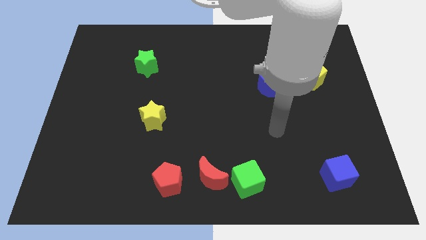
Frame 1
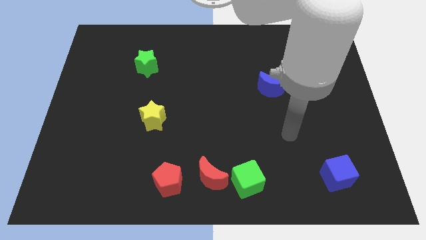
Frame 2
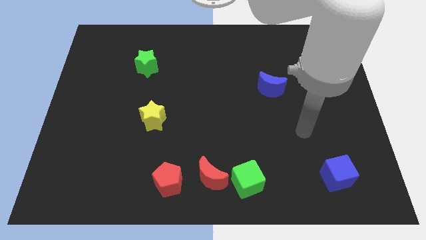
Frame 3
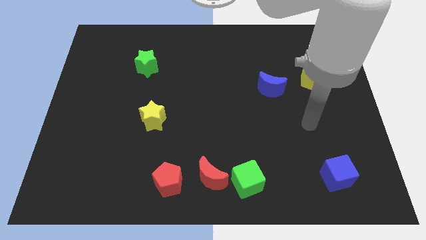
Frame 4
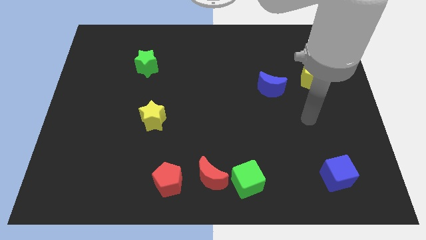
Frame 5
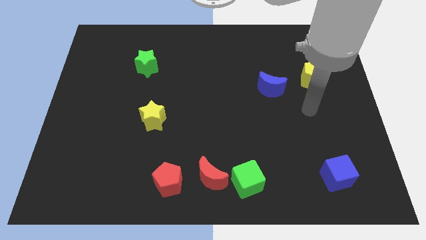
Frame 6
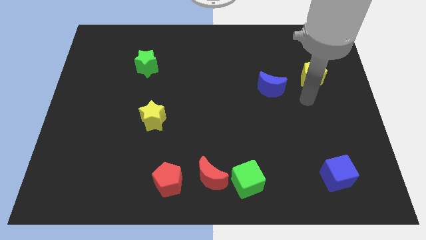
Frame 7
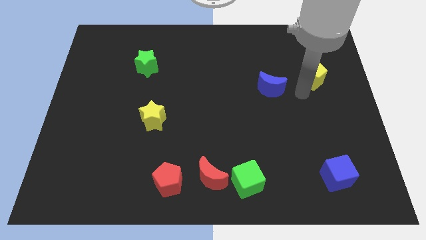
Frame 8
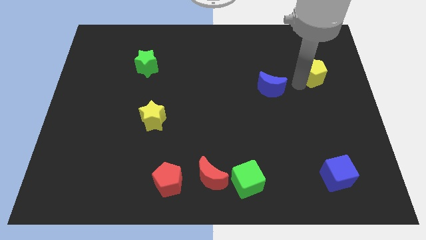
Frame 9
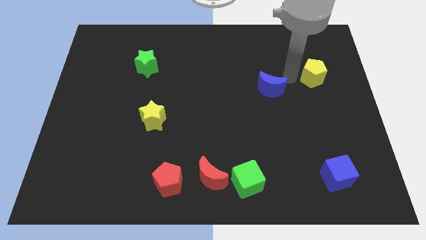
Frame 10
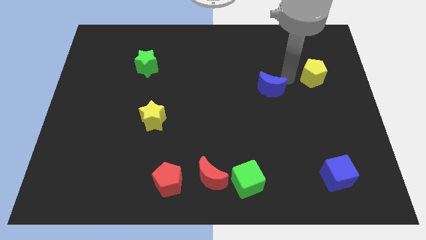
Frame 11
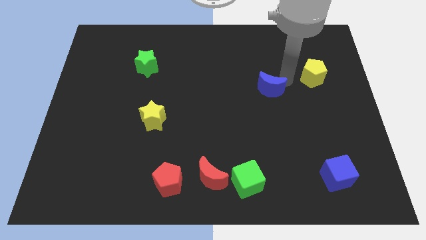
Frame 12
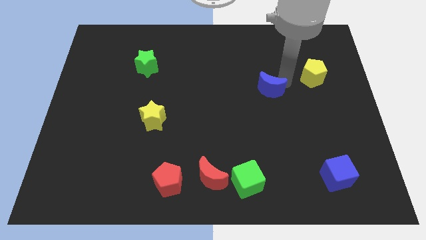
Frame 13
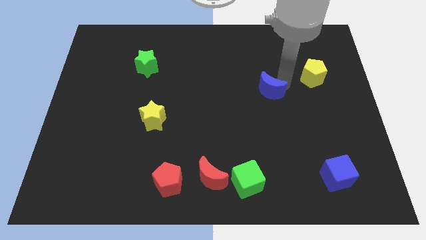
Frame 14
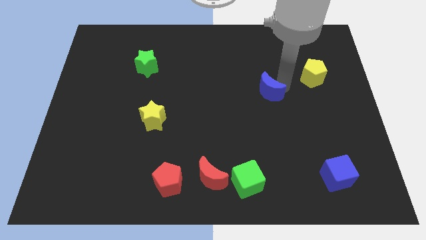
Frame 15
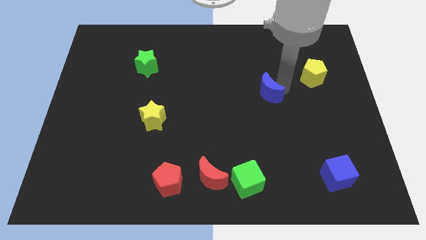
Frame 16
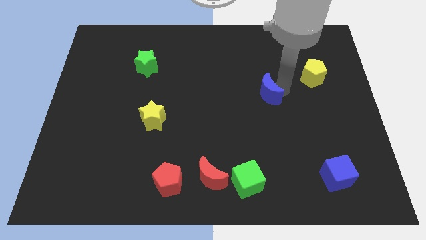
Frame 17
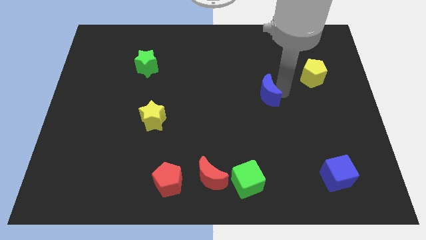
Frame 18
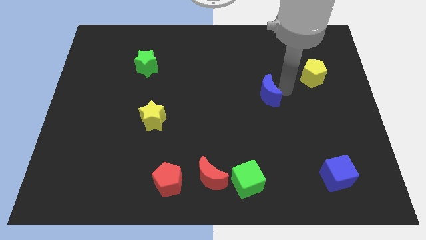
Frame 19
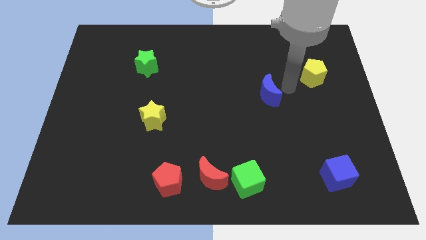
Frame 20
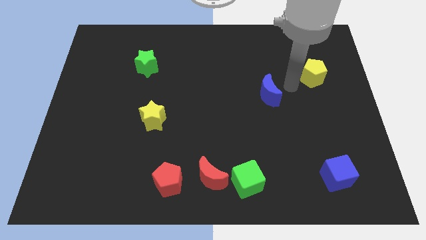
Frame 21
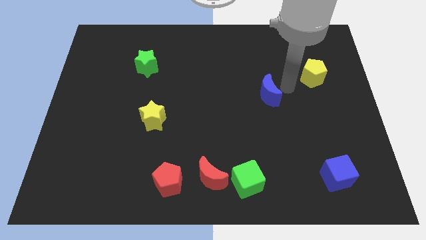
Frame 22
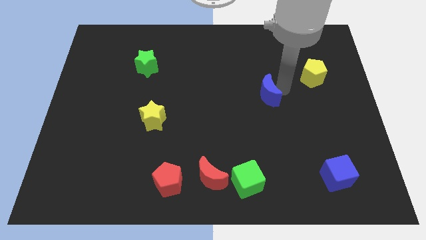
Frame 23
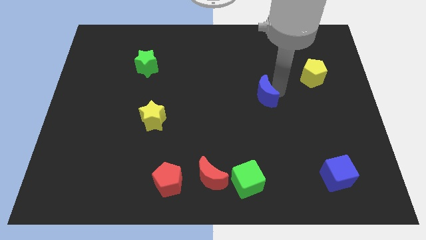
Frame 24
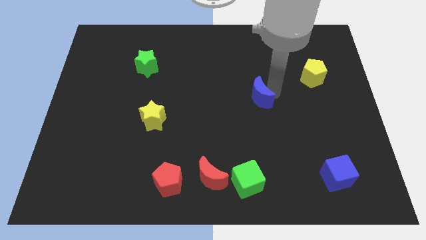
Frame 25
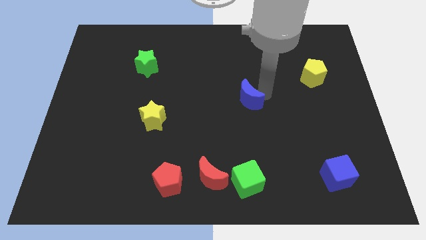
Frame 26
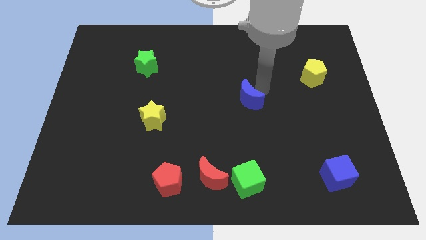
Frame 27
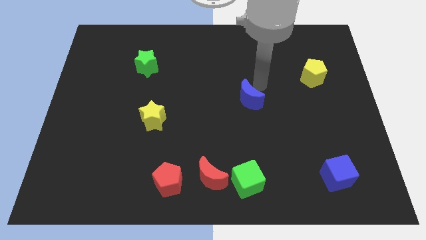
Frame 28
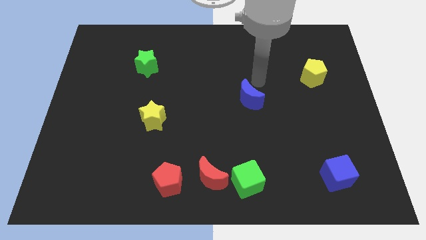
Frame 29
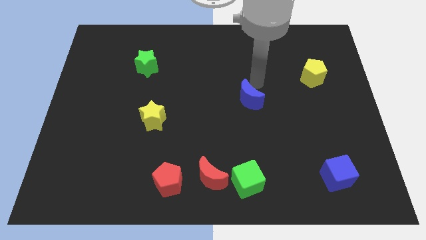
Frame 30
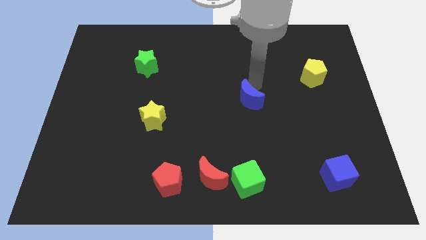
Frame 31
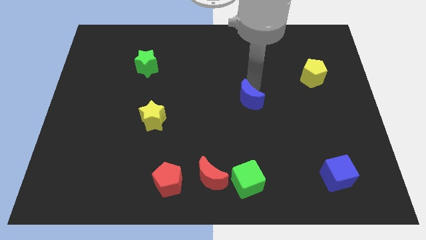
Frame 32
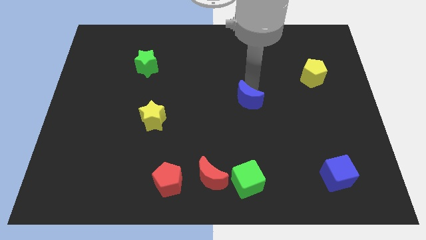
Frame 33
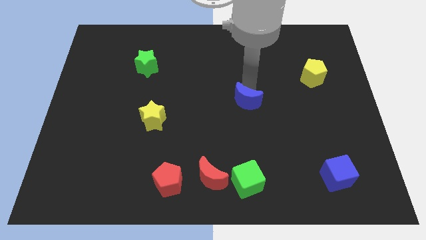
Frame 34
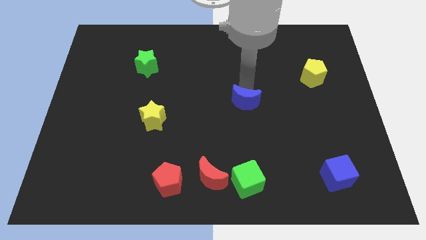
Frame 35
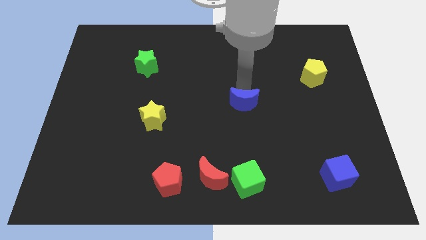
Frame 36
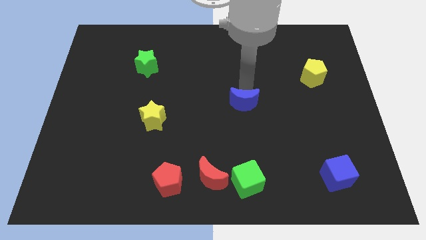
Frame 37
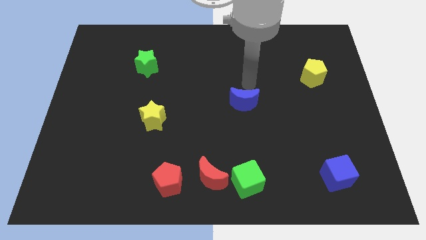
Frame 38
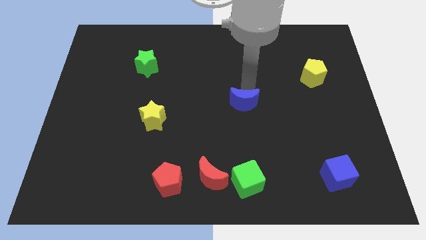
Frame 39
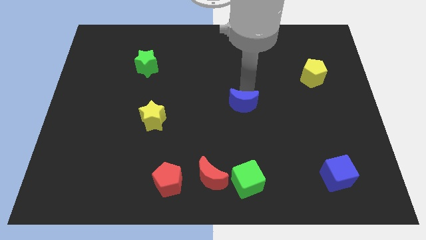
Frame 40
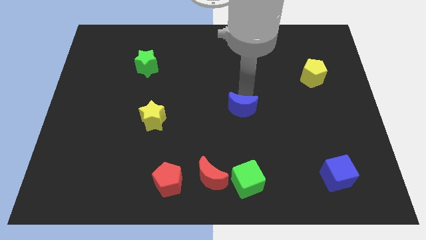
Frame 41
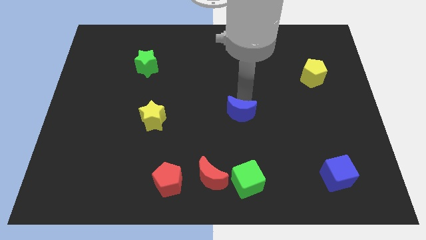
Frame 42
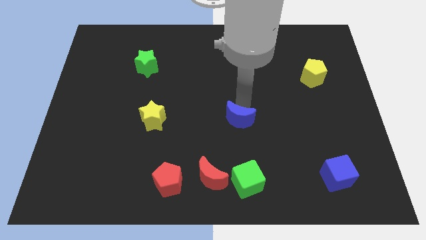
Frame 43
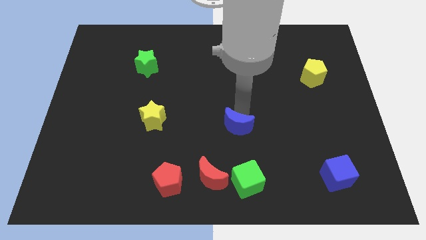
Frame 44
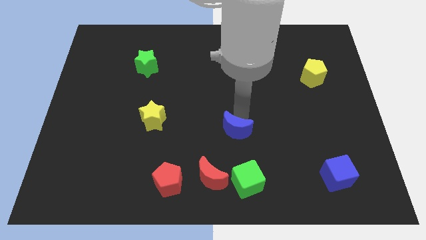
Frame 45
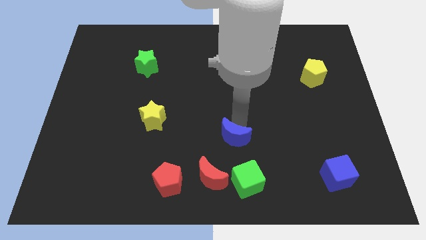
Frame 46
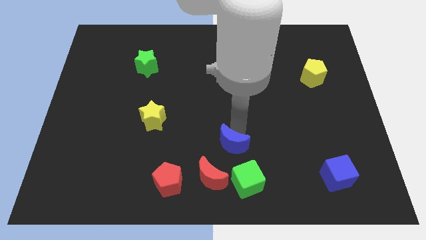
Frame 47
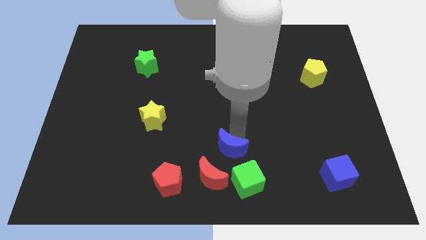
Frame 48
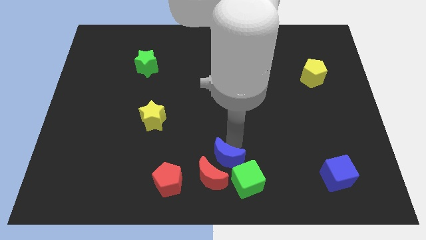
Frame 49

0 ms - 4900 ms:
slide the blue moon to the red moon

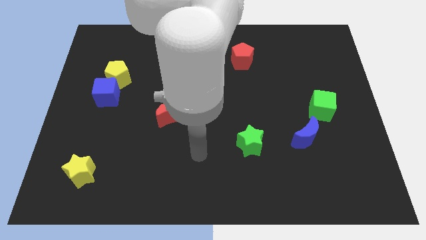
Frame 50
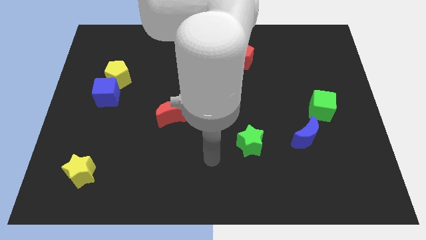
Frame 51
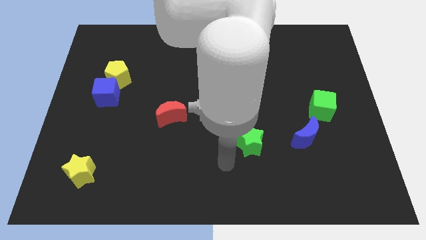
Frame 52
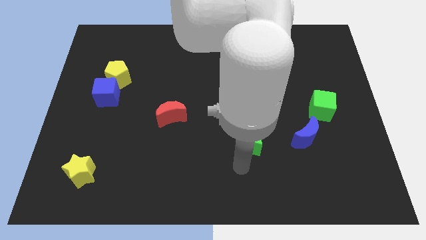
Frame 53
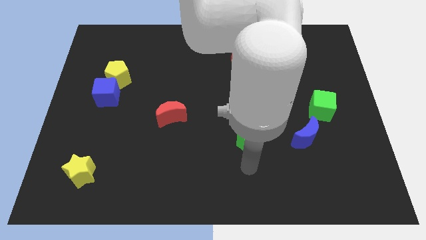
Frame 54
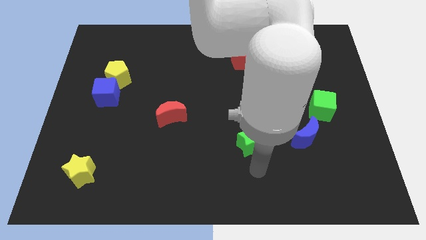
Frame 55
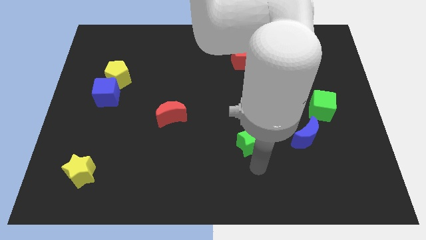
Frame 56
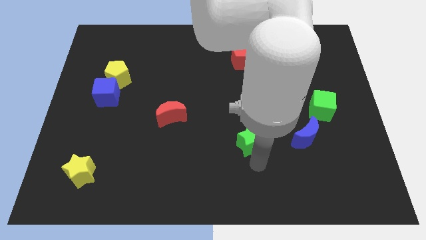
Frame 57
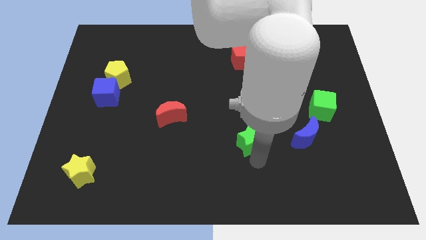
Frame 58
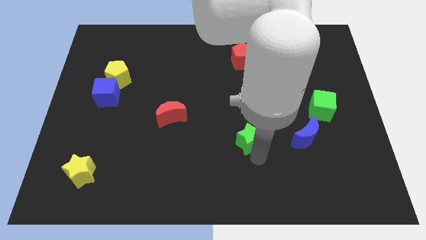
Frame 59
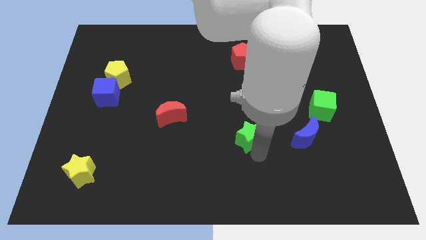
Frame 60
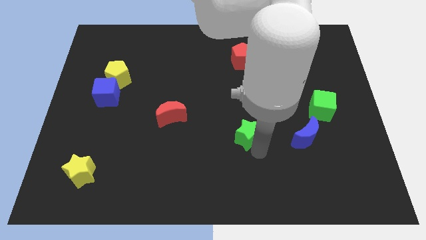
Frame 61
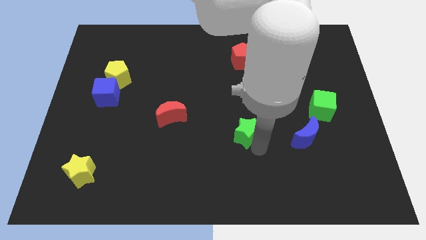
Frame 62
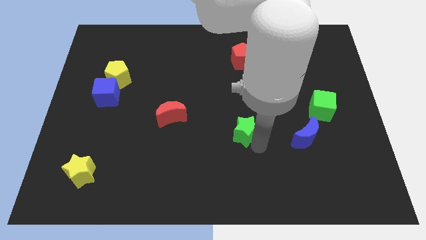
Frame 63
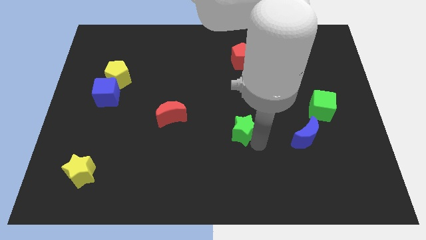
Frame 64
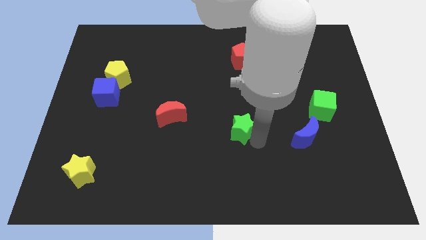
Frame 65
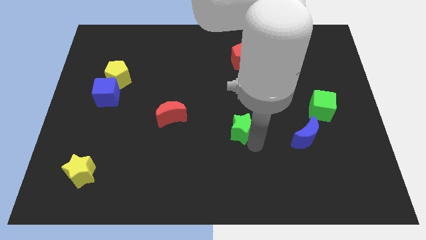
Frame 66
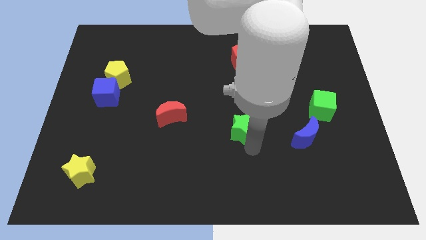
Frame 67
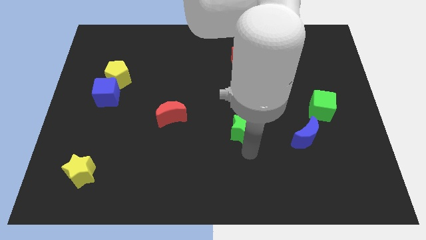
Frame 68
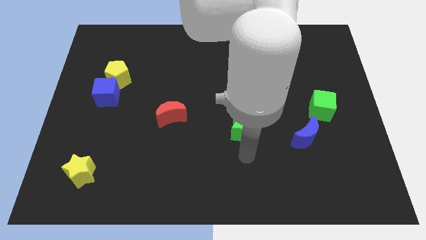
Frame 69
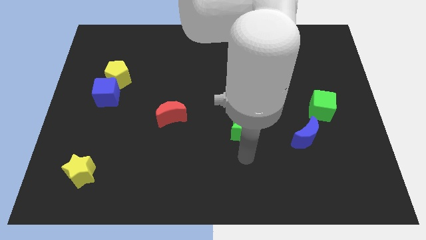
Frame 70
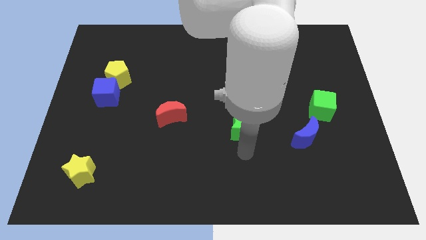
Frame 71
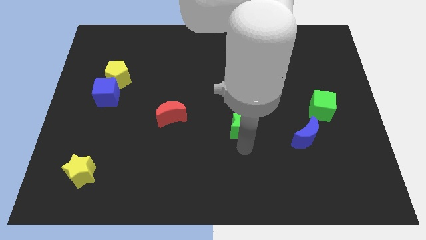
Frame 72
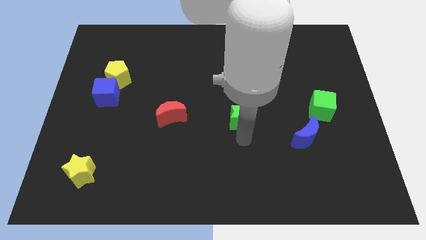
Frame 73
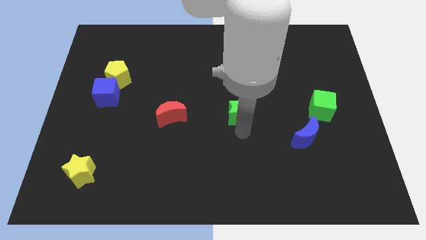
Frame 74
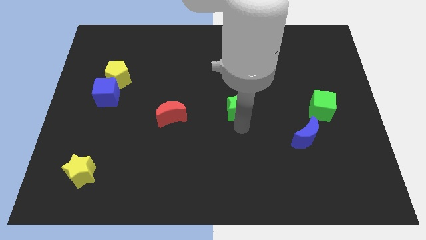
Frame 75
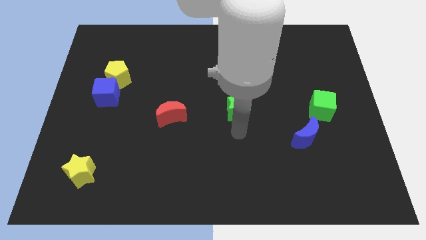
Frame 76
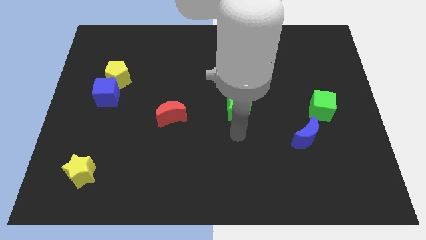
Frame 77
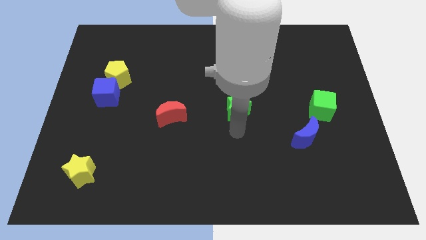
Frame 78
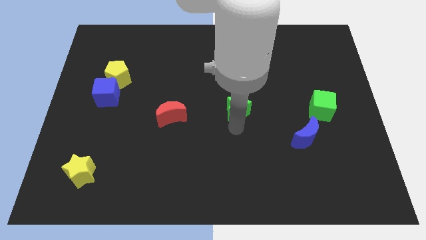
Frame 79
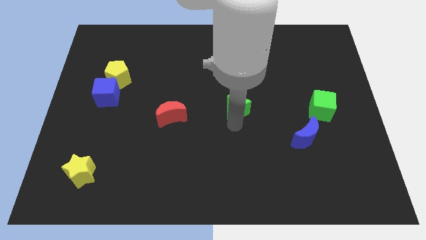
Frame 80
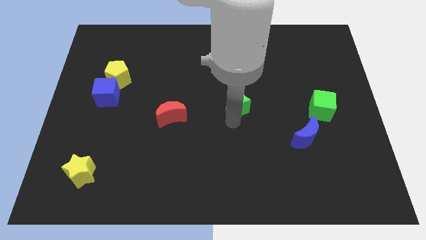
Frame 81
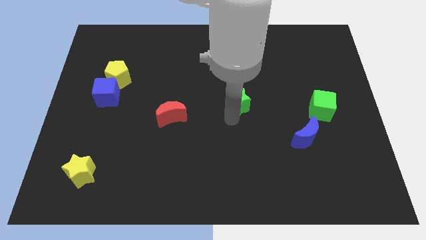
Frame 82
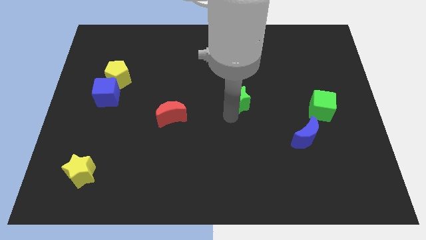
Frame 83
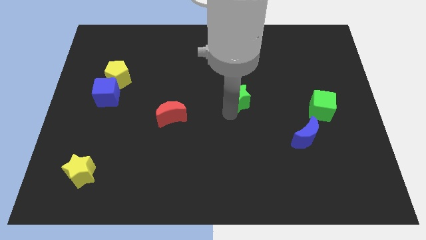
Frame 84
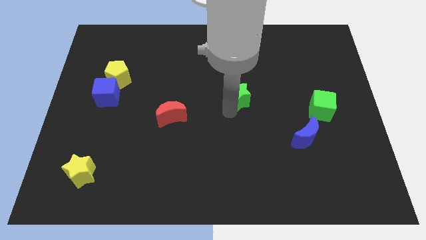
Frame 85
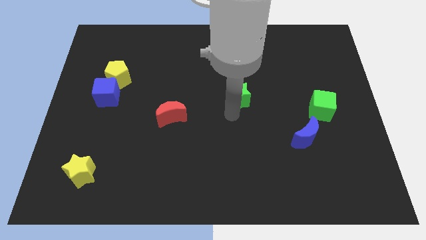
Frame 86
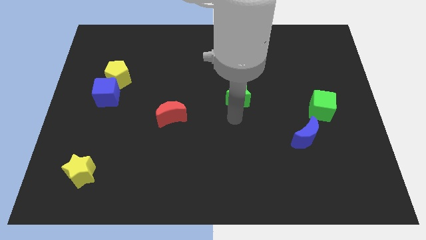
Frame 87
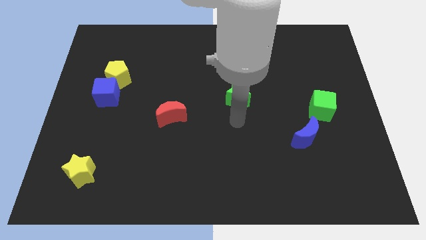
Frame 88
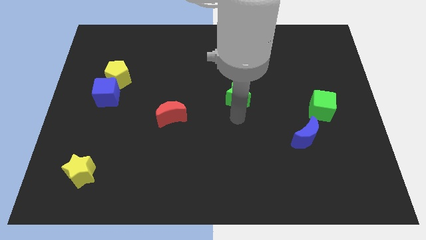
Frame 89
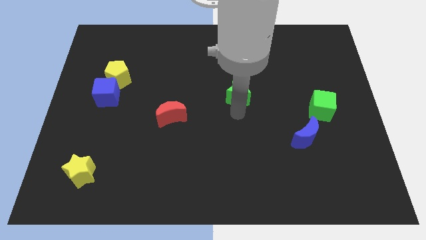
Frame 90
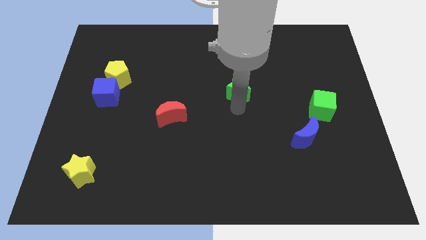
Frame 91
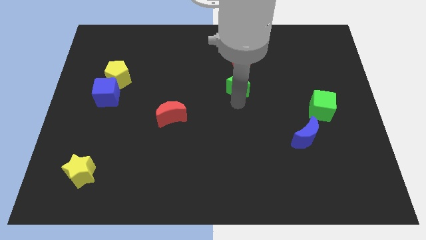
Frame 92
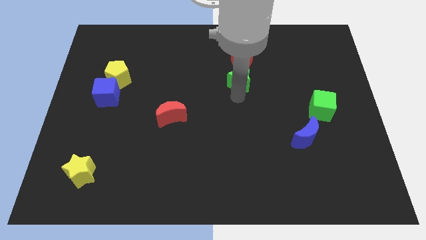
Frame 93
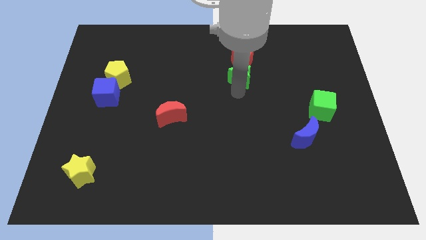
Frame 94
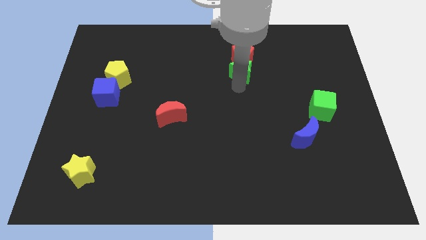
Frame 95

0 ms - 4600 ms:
slide the green star towards the red pentagon
